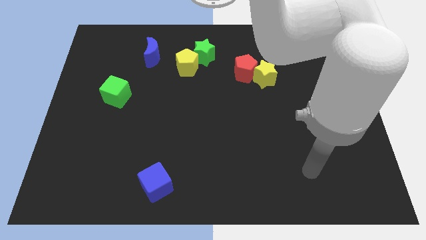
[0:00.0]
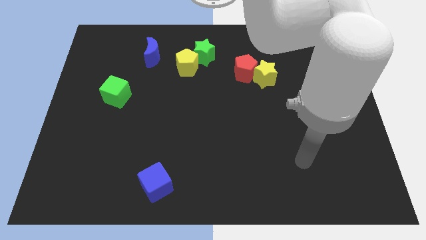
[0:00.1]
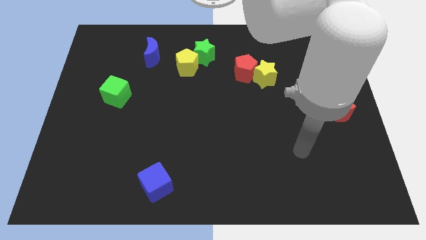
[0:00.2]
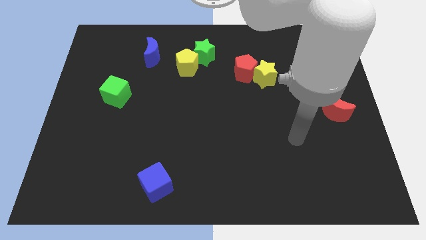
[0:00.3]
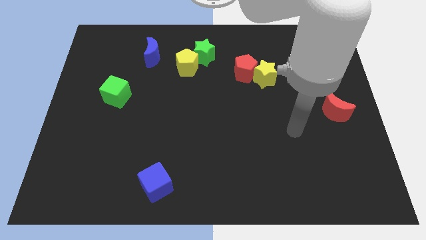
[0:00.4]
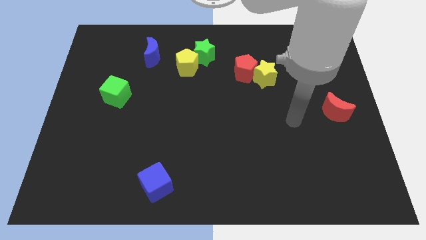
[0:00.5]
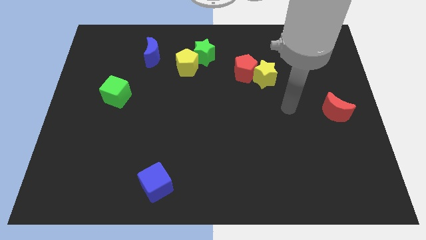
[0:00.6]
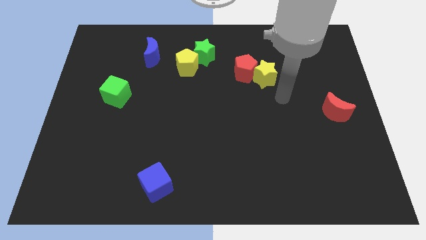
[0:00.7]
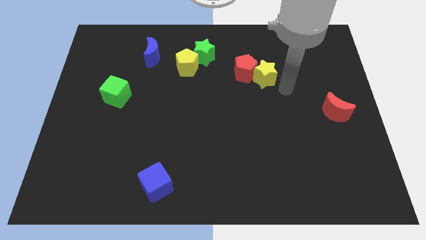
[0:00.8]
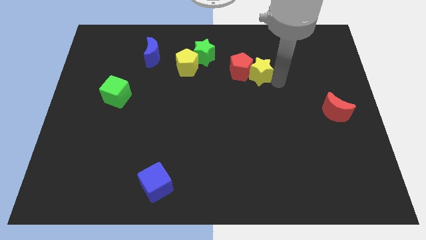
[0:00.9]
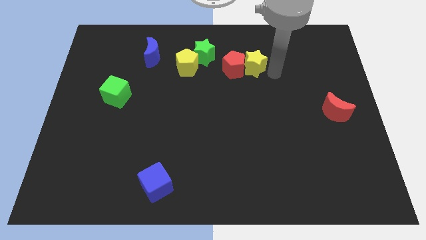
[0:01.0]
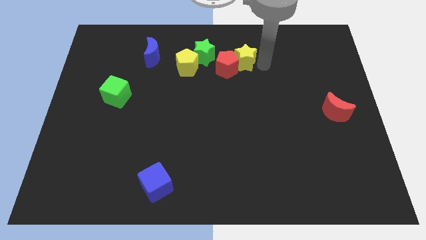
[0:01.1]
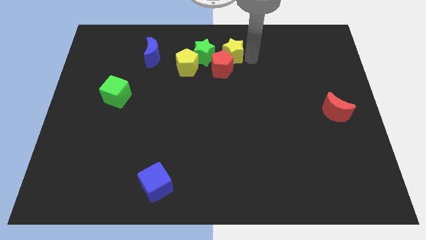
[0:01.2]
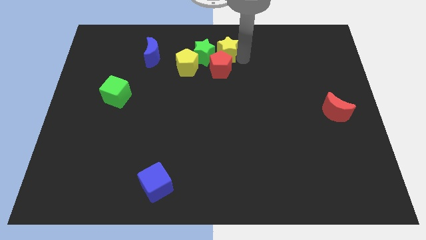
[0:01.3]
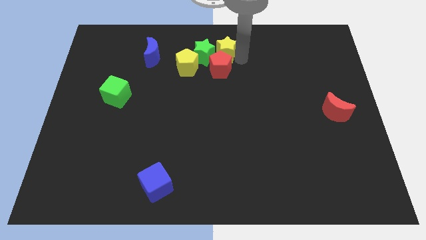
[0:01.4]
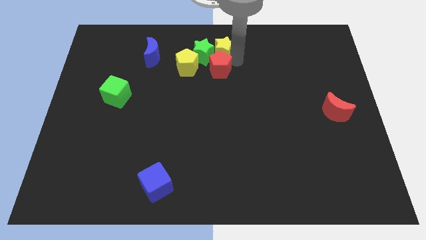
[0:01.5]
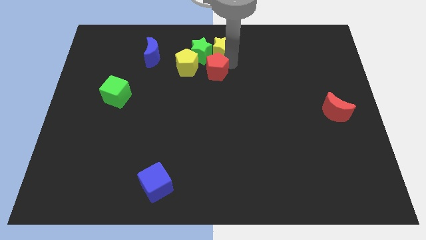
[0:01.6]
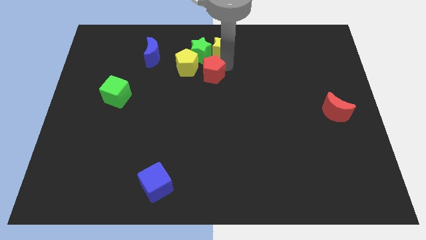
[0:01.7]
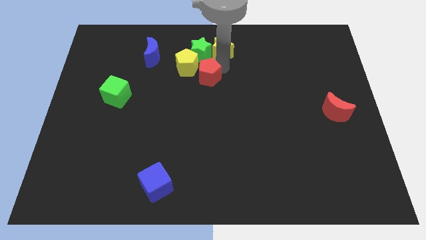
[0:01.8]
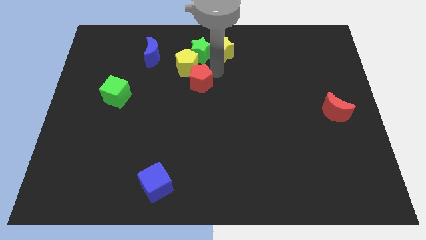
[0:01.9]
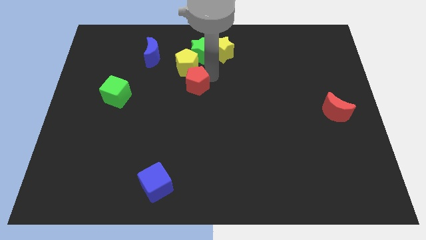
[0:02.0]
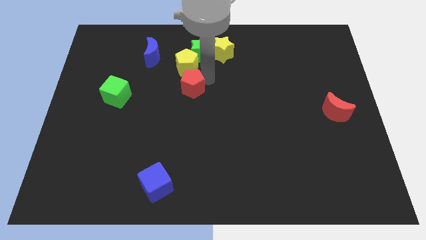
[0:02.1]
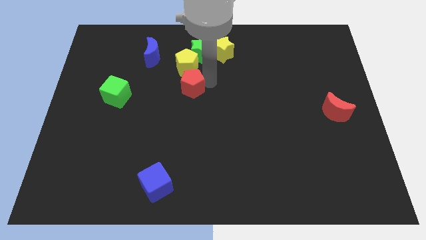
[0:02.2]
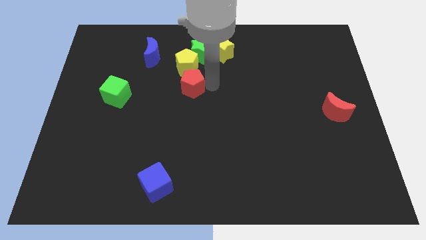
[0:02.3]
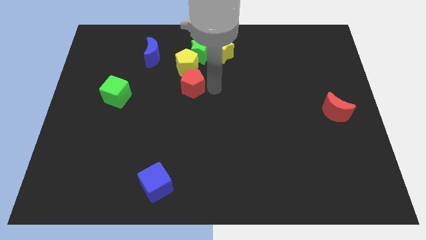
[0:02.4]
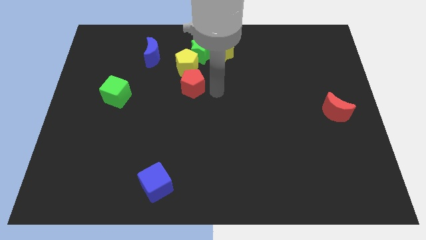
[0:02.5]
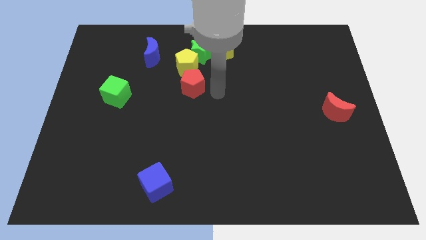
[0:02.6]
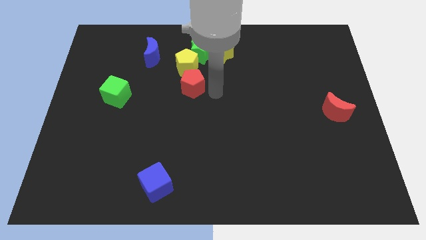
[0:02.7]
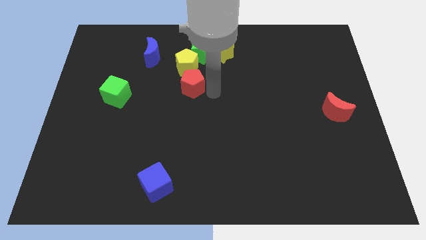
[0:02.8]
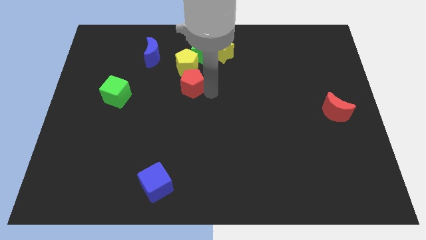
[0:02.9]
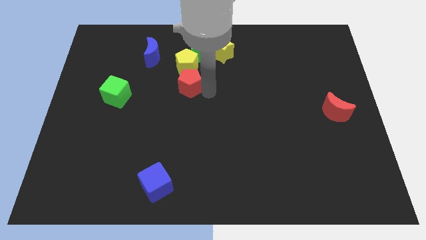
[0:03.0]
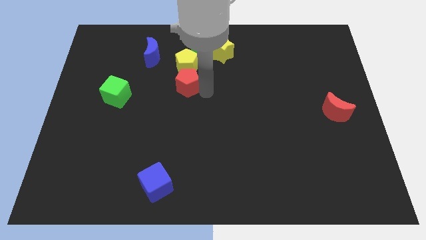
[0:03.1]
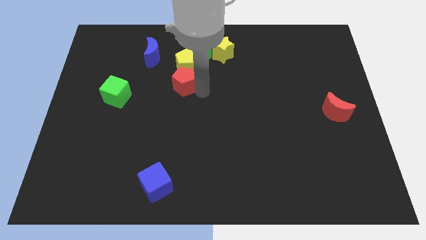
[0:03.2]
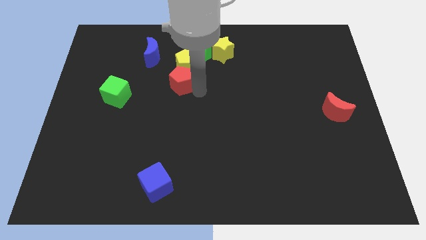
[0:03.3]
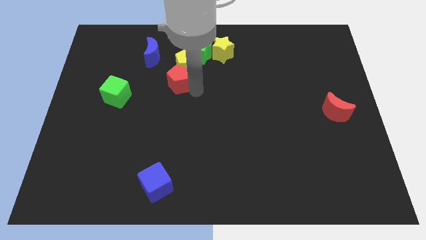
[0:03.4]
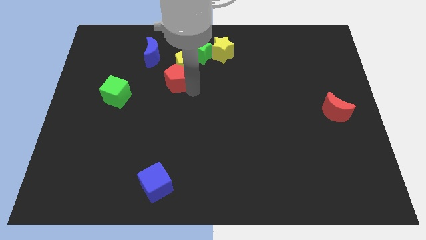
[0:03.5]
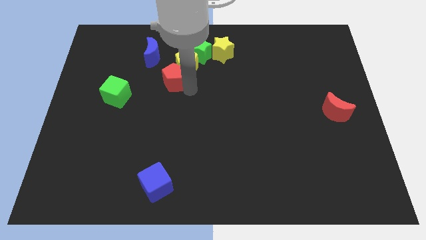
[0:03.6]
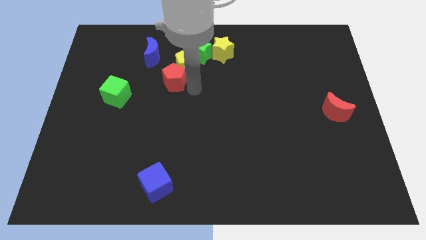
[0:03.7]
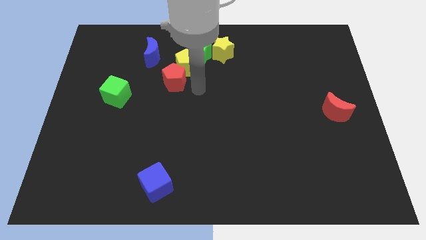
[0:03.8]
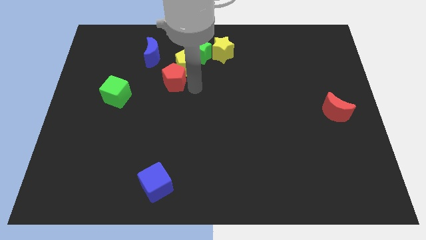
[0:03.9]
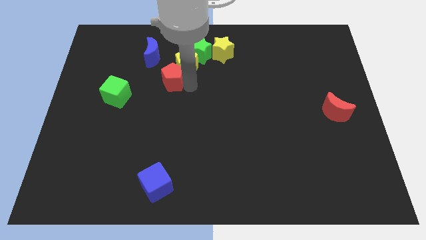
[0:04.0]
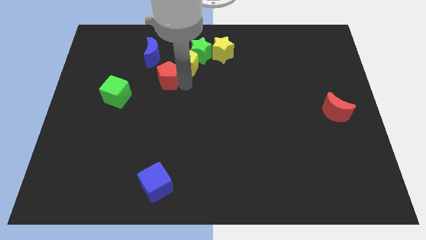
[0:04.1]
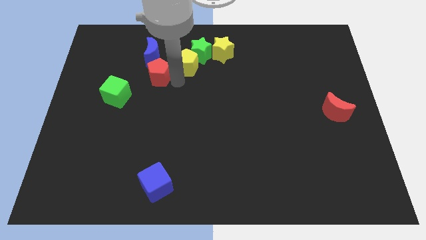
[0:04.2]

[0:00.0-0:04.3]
push the red pentagon to the left

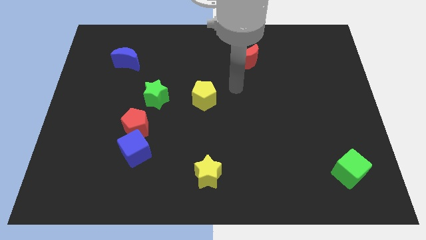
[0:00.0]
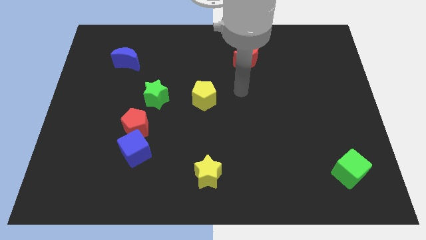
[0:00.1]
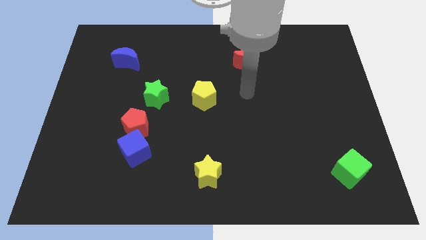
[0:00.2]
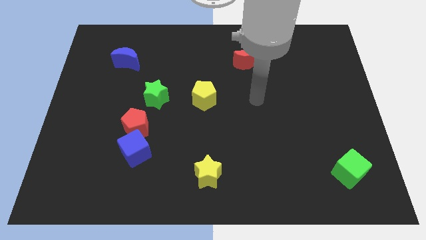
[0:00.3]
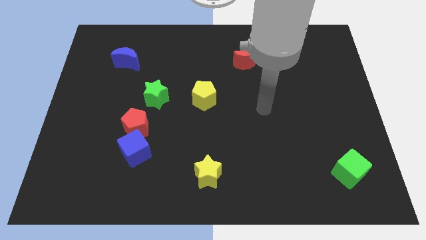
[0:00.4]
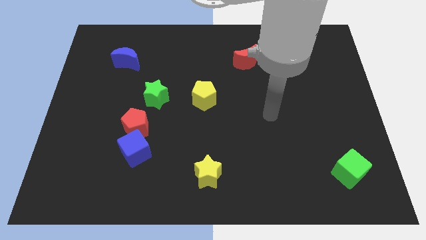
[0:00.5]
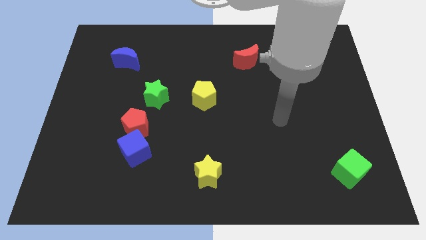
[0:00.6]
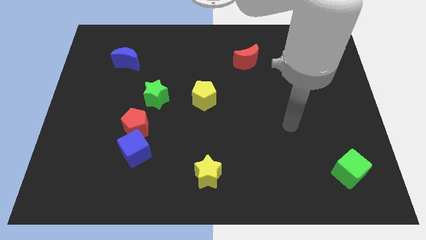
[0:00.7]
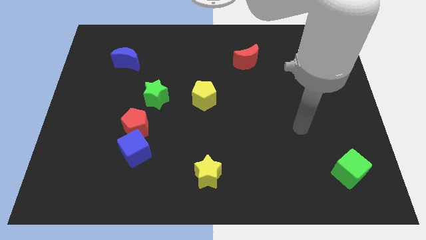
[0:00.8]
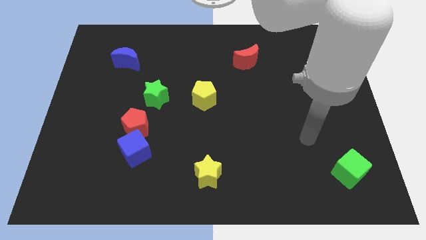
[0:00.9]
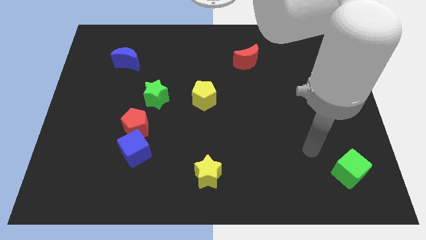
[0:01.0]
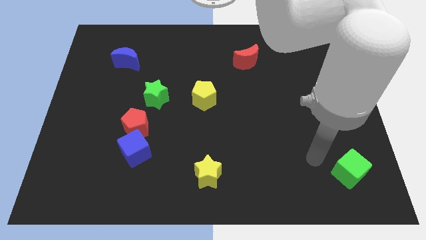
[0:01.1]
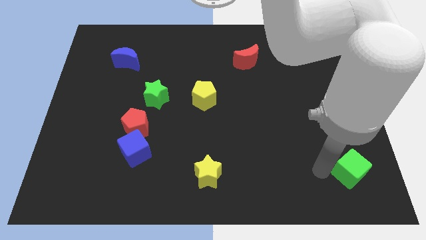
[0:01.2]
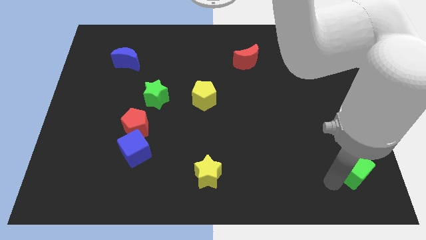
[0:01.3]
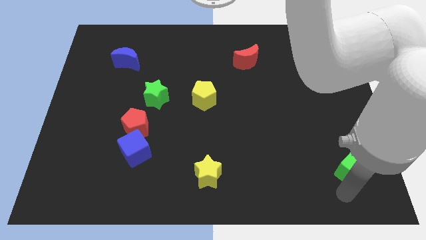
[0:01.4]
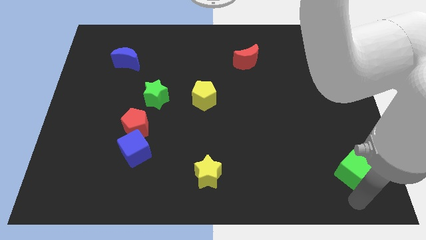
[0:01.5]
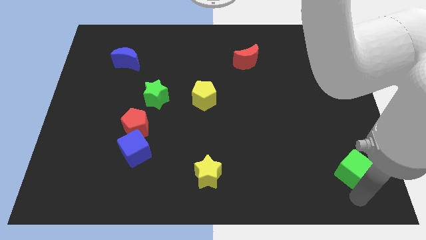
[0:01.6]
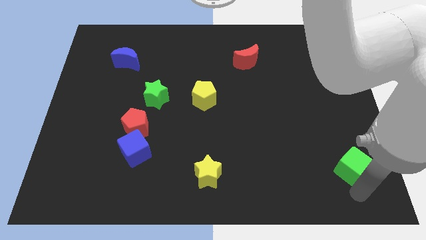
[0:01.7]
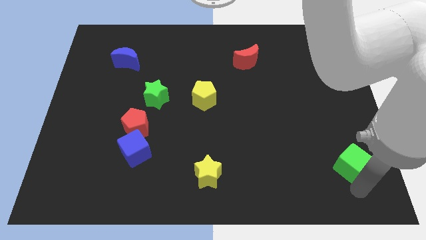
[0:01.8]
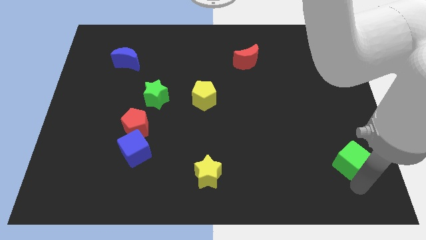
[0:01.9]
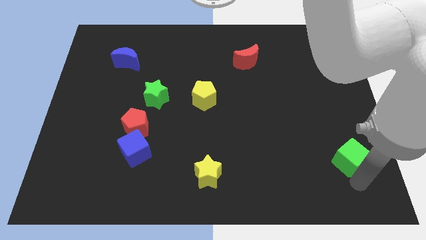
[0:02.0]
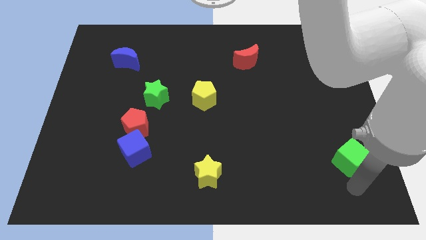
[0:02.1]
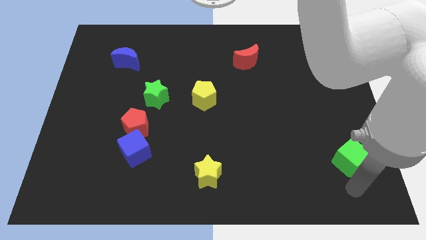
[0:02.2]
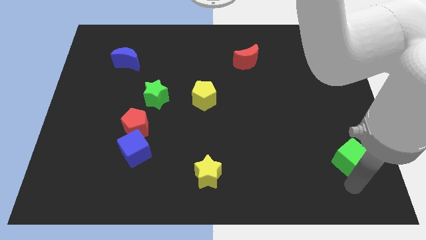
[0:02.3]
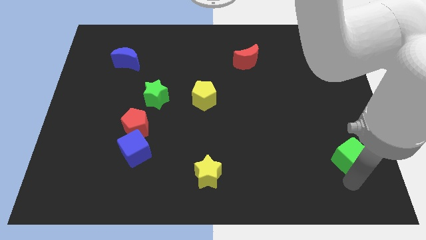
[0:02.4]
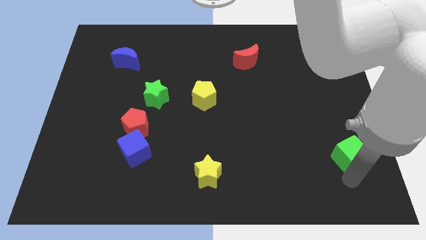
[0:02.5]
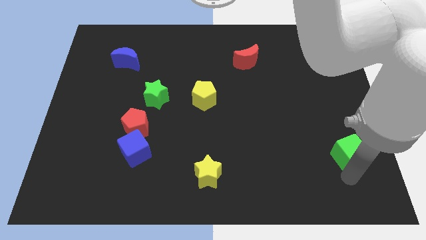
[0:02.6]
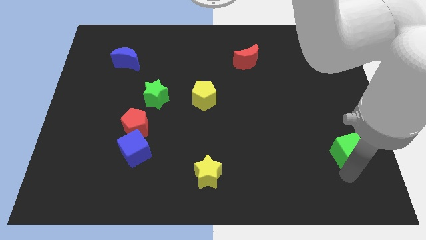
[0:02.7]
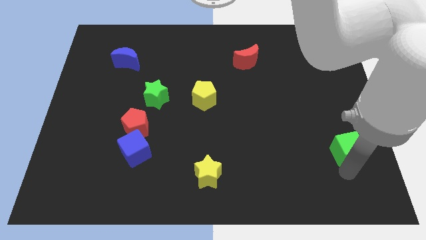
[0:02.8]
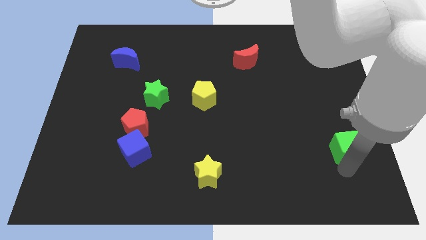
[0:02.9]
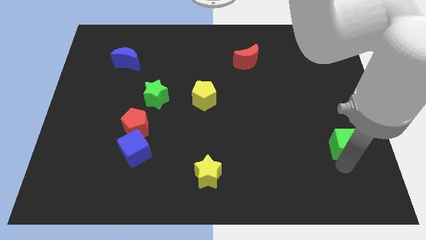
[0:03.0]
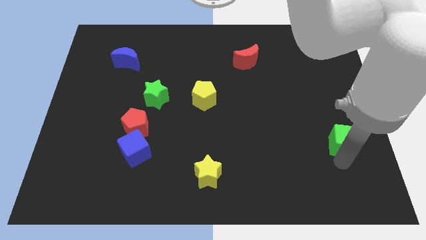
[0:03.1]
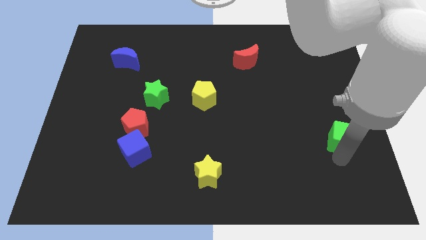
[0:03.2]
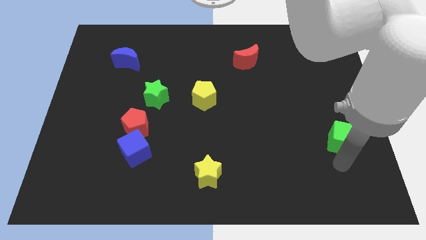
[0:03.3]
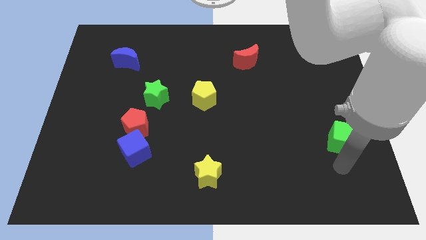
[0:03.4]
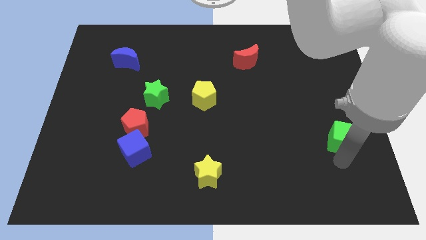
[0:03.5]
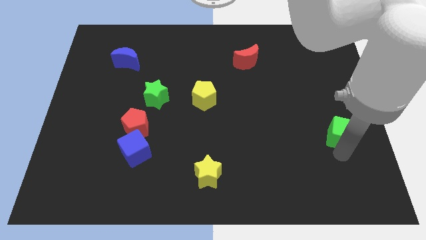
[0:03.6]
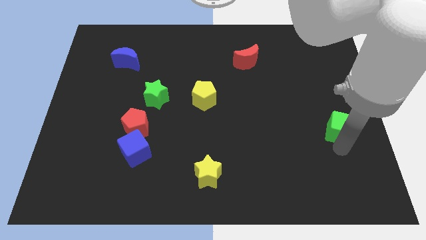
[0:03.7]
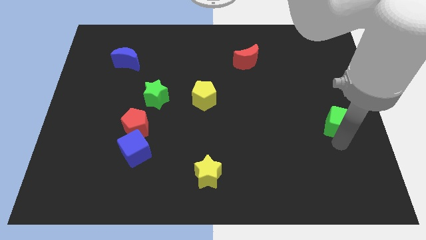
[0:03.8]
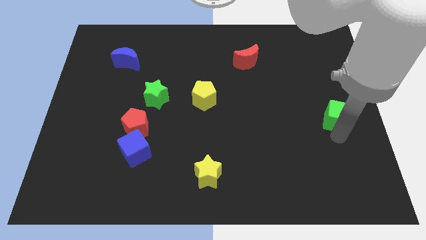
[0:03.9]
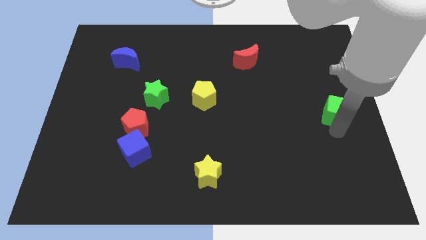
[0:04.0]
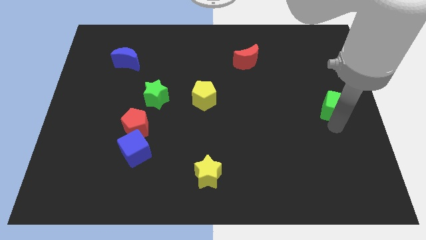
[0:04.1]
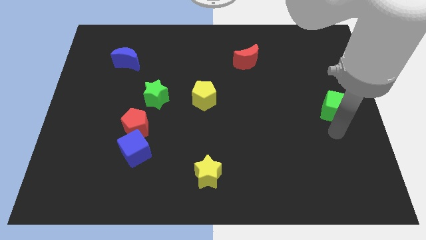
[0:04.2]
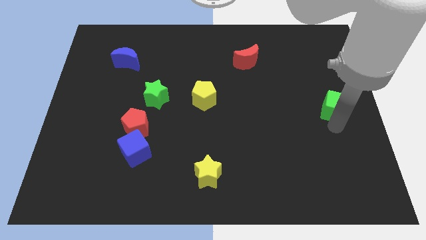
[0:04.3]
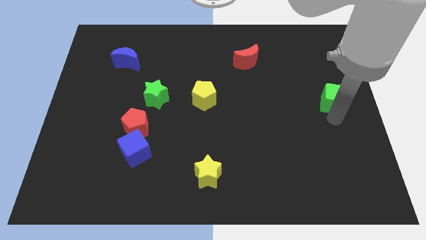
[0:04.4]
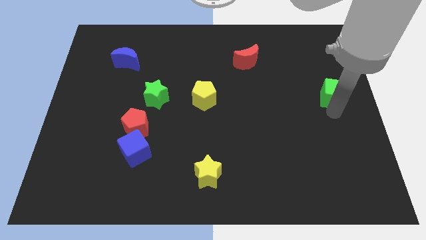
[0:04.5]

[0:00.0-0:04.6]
slide the green cube upwards
